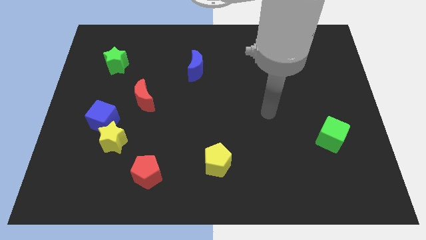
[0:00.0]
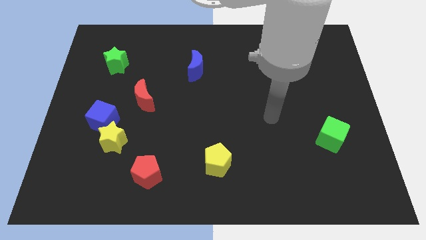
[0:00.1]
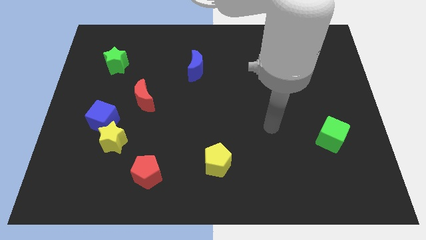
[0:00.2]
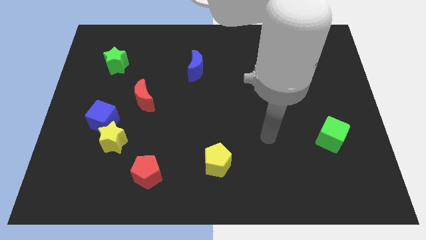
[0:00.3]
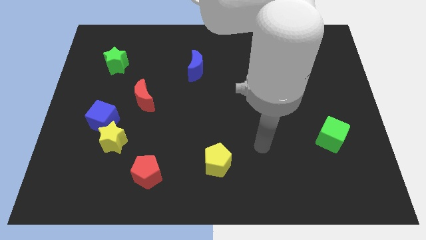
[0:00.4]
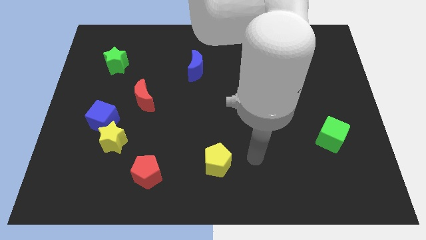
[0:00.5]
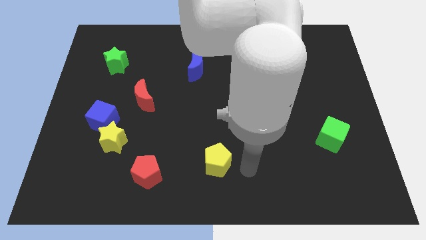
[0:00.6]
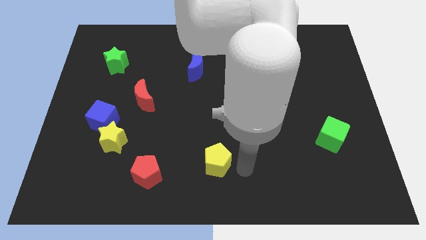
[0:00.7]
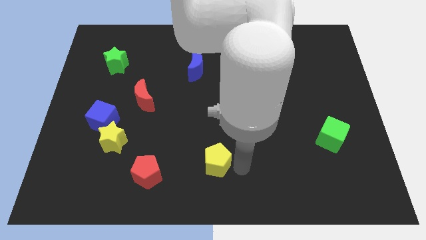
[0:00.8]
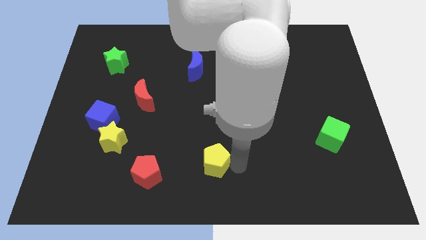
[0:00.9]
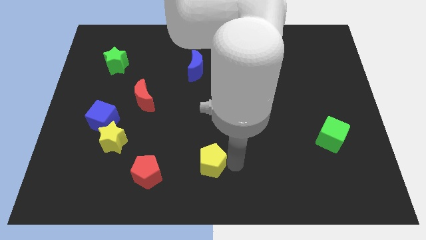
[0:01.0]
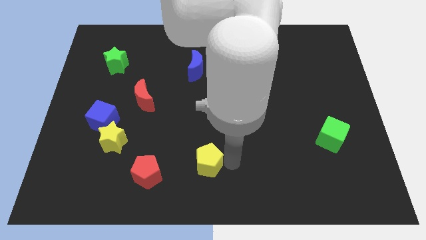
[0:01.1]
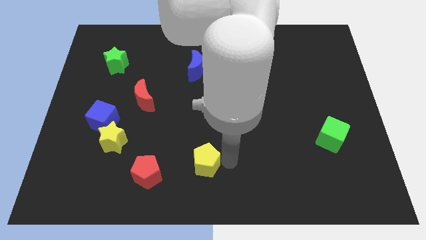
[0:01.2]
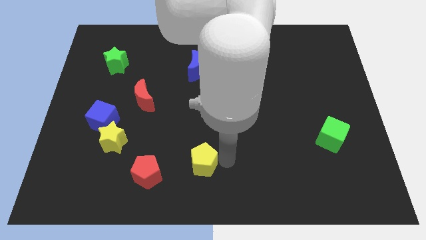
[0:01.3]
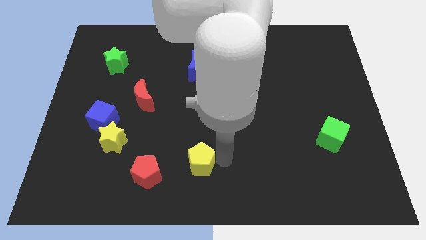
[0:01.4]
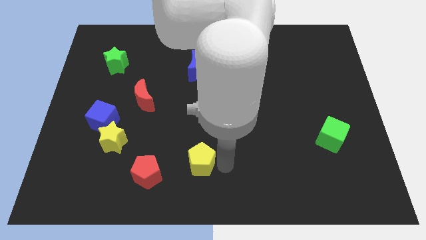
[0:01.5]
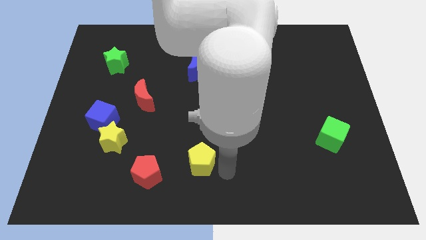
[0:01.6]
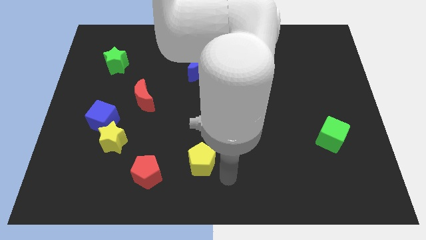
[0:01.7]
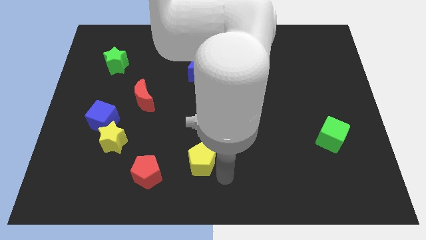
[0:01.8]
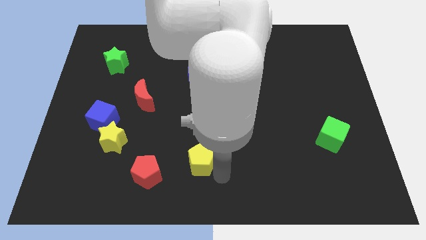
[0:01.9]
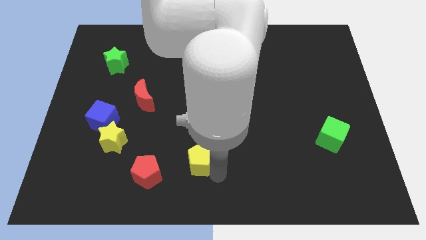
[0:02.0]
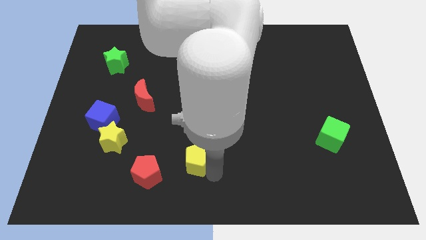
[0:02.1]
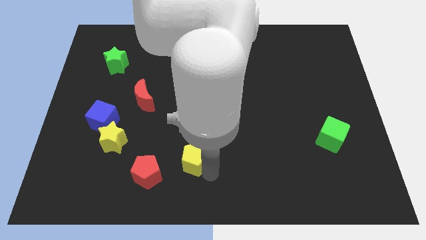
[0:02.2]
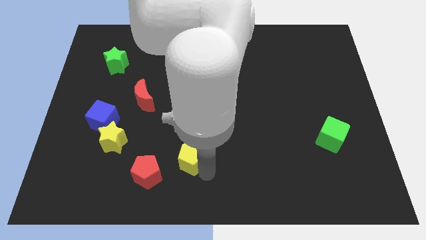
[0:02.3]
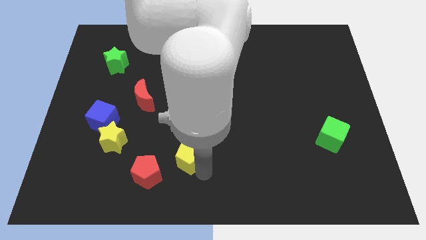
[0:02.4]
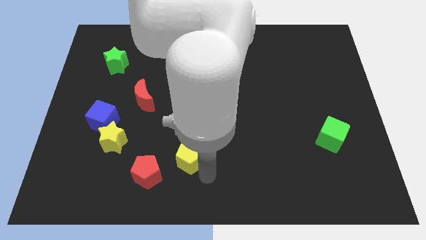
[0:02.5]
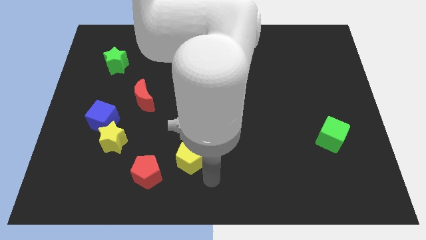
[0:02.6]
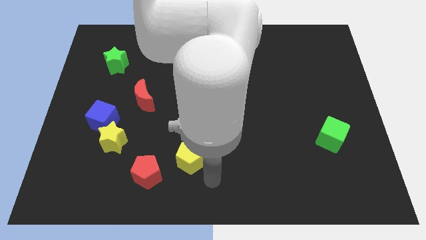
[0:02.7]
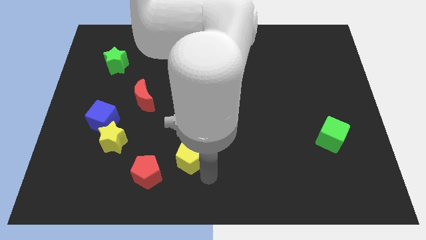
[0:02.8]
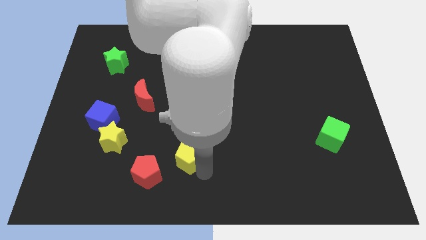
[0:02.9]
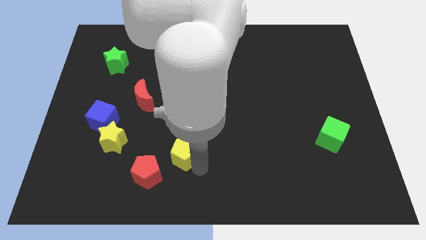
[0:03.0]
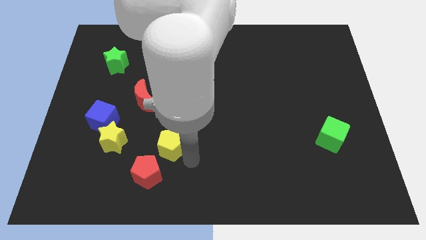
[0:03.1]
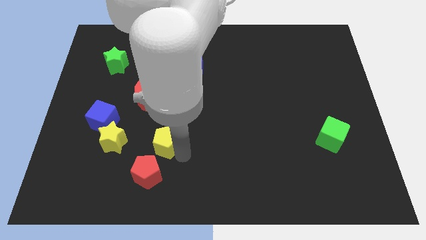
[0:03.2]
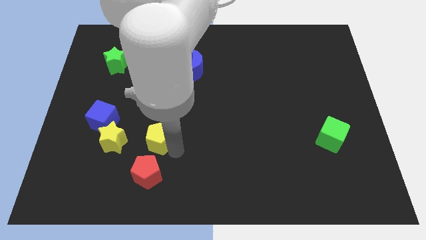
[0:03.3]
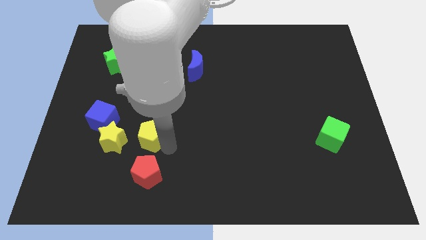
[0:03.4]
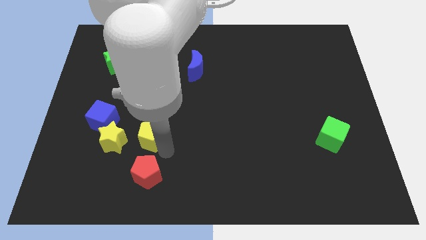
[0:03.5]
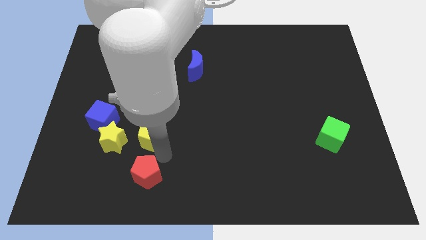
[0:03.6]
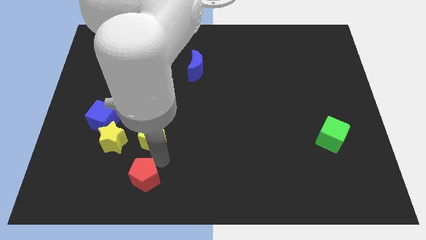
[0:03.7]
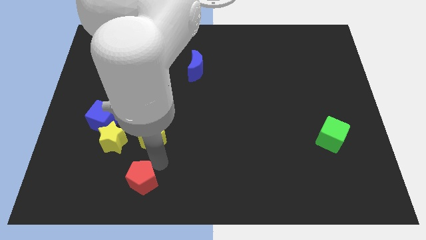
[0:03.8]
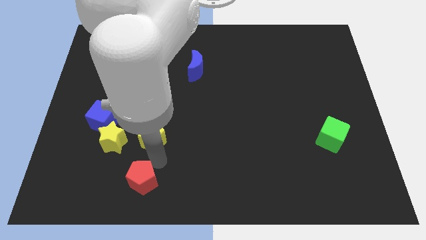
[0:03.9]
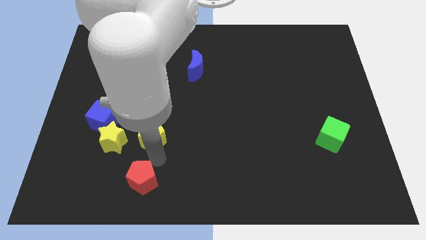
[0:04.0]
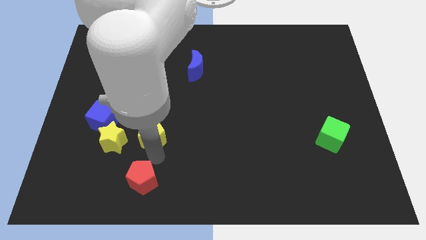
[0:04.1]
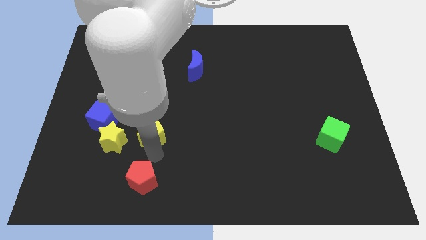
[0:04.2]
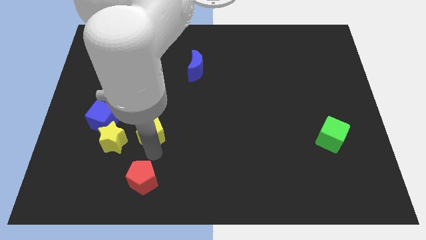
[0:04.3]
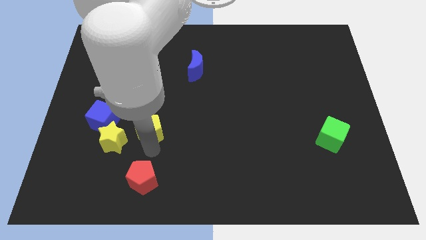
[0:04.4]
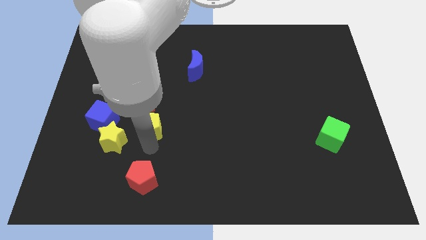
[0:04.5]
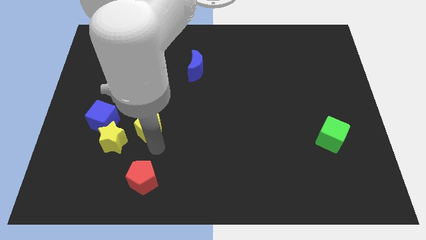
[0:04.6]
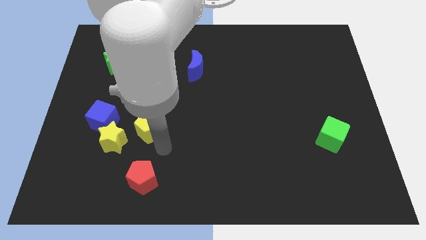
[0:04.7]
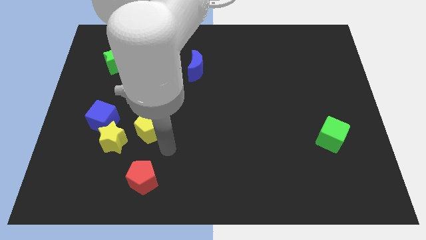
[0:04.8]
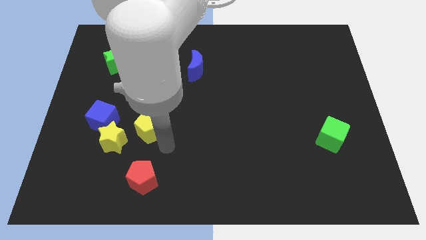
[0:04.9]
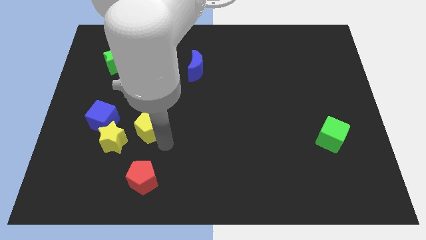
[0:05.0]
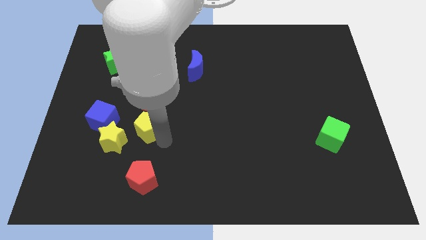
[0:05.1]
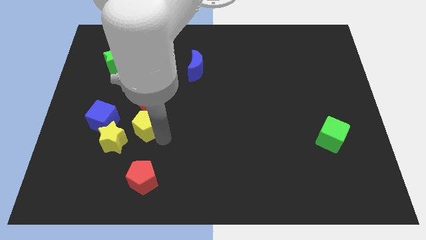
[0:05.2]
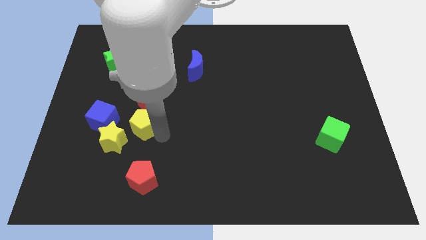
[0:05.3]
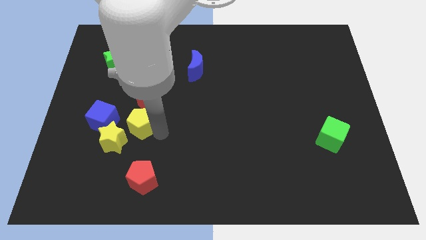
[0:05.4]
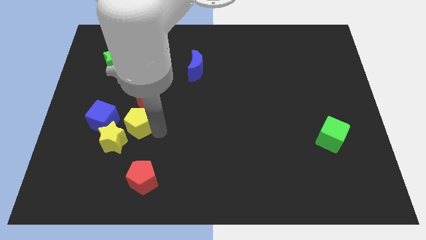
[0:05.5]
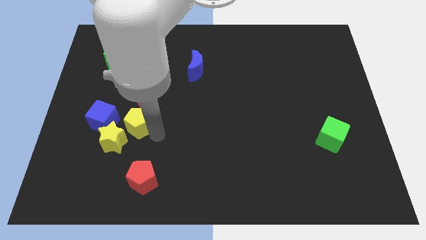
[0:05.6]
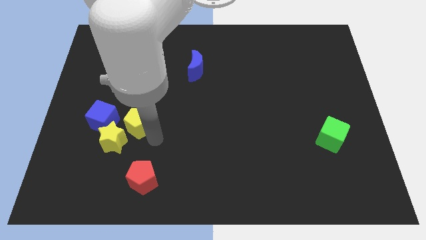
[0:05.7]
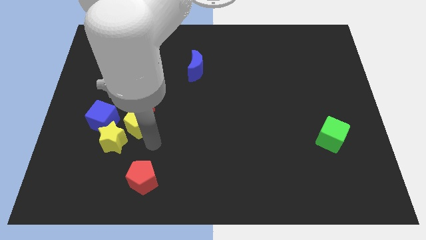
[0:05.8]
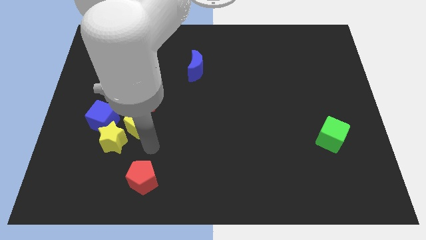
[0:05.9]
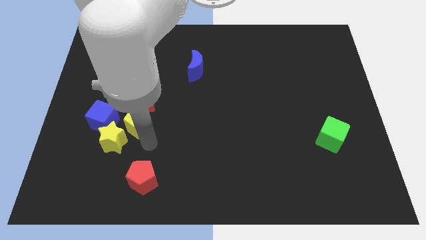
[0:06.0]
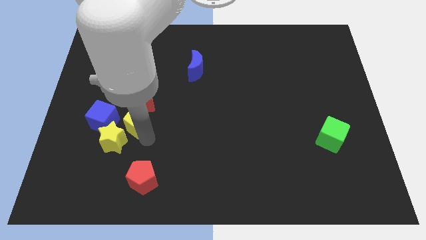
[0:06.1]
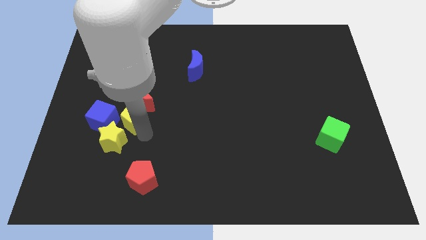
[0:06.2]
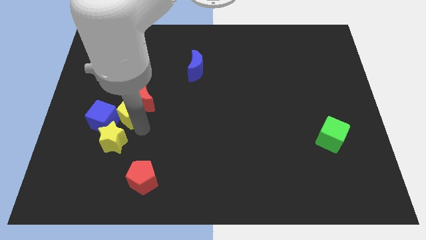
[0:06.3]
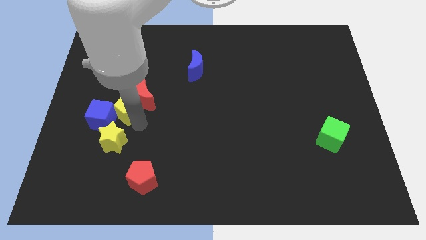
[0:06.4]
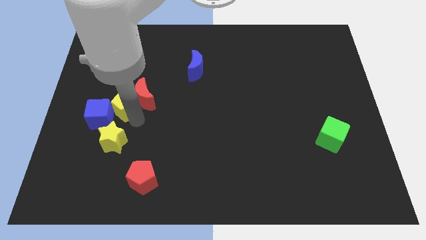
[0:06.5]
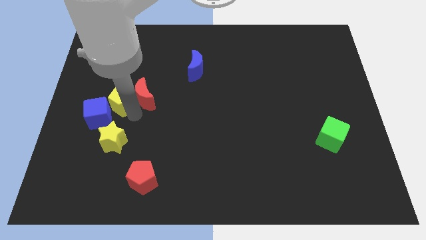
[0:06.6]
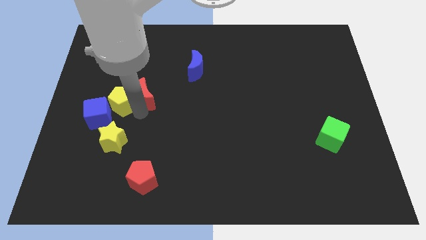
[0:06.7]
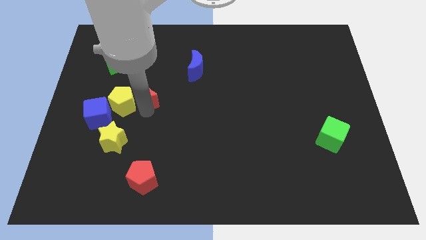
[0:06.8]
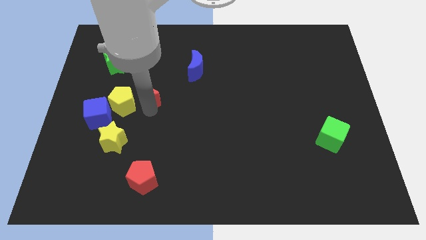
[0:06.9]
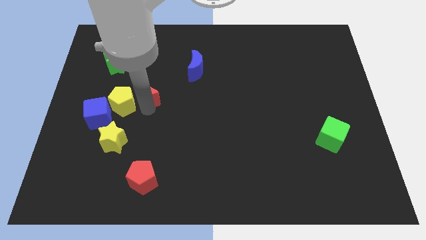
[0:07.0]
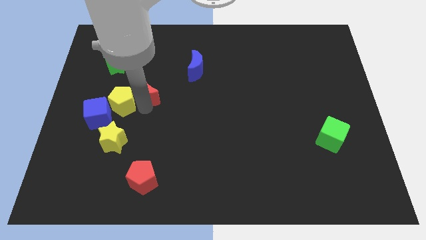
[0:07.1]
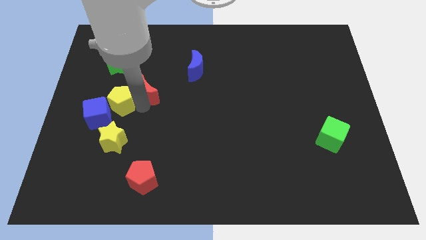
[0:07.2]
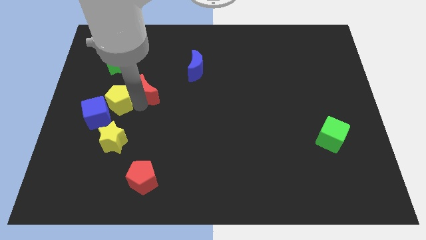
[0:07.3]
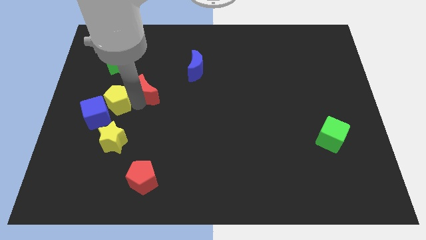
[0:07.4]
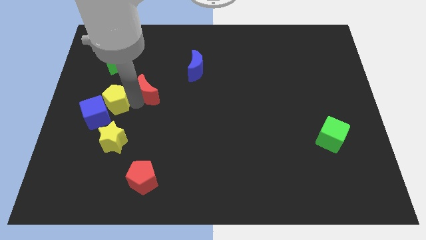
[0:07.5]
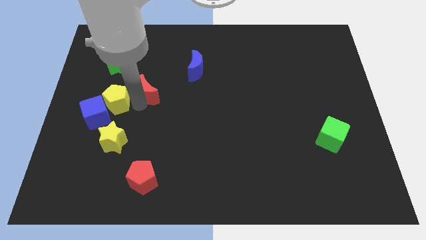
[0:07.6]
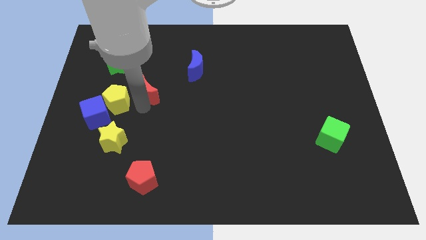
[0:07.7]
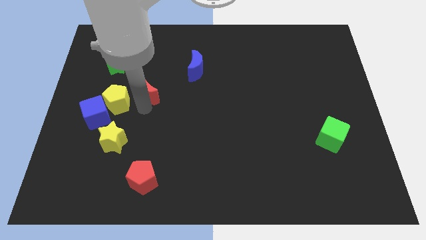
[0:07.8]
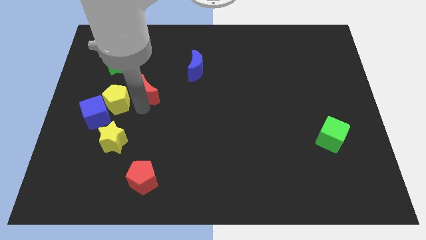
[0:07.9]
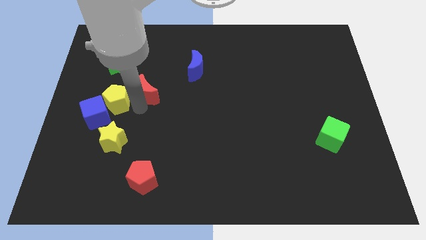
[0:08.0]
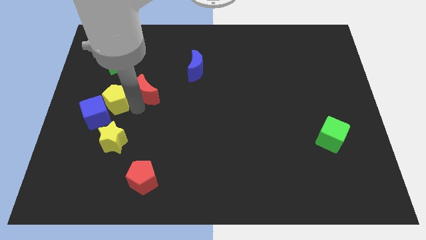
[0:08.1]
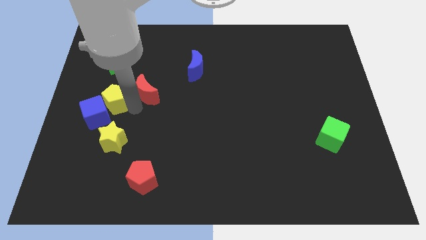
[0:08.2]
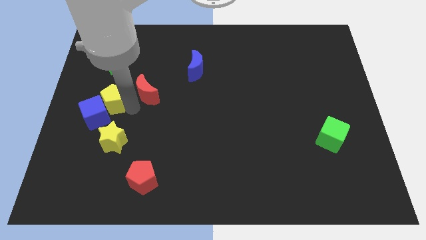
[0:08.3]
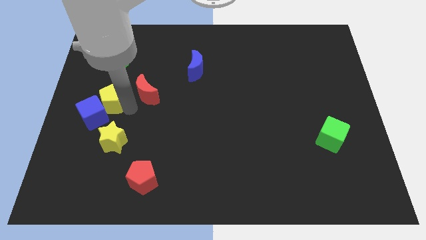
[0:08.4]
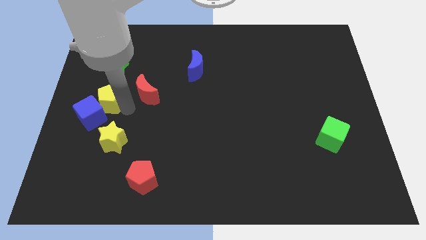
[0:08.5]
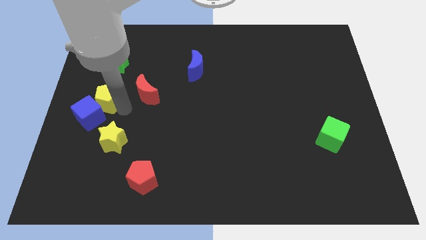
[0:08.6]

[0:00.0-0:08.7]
push the yellow pentagon to the left side
